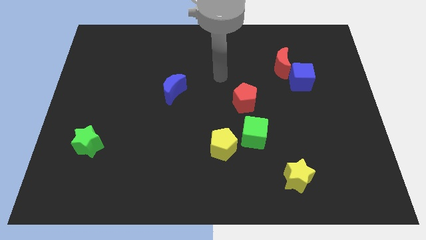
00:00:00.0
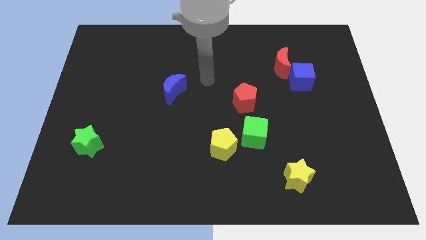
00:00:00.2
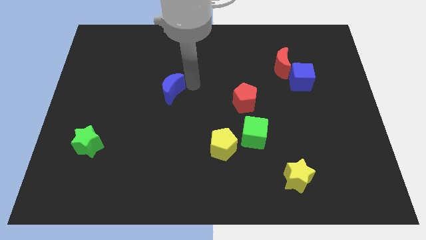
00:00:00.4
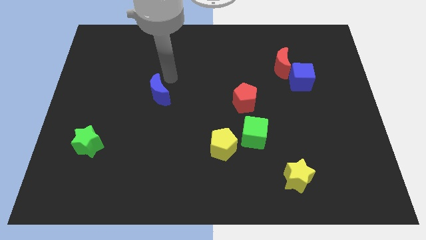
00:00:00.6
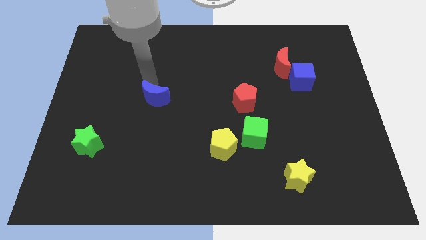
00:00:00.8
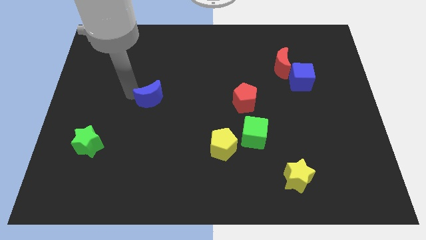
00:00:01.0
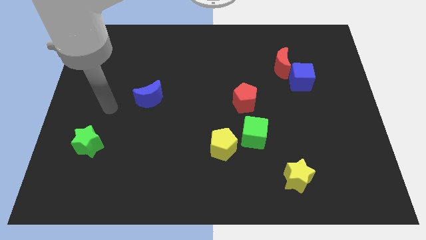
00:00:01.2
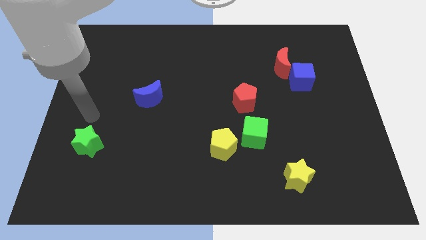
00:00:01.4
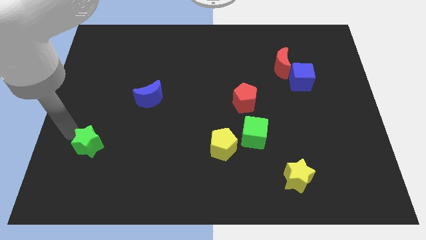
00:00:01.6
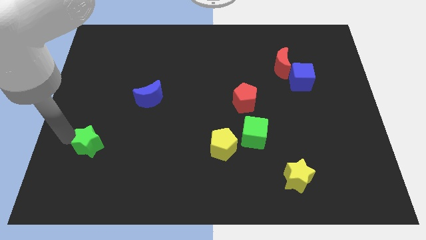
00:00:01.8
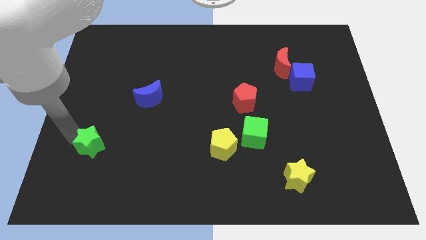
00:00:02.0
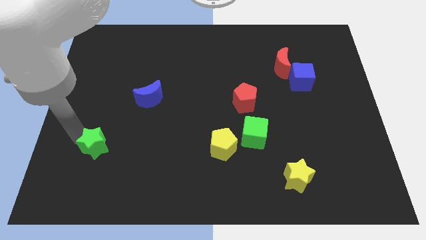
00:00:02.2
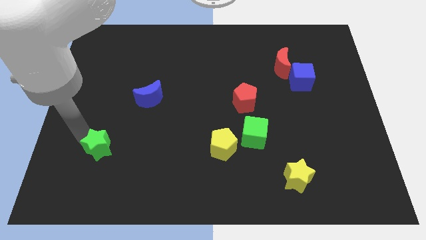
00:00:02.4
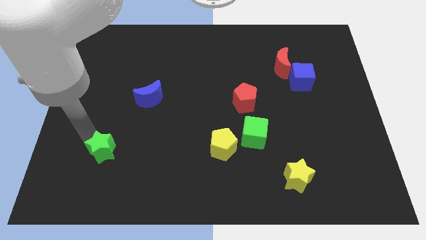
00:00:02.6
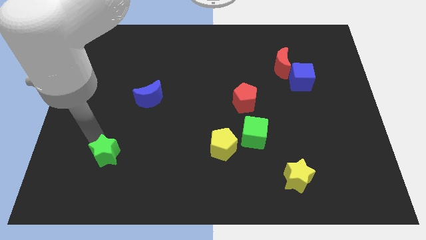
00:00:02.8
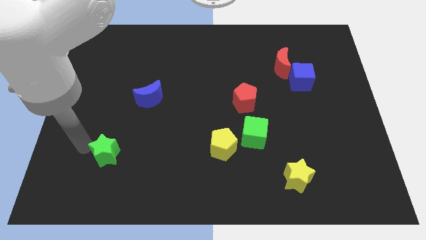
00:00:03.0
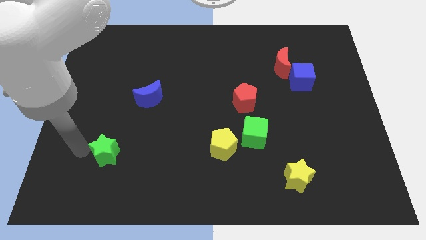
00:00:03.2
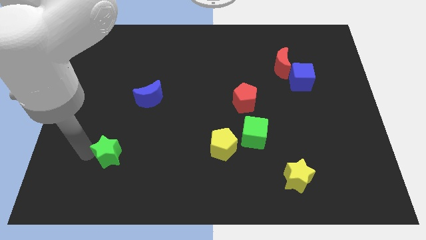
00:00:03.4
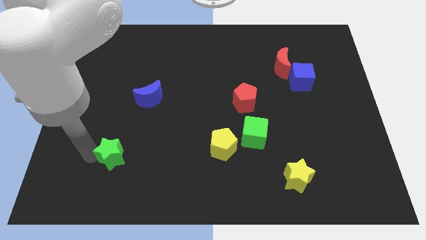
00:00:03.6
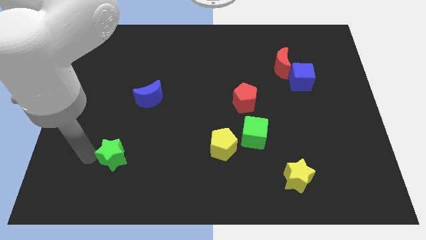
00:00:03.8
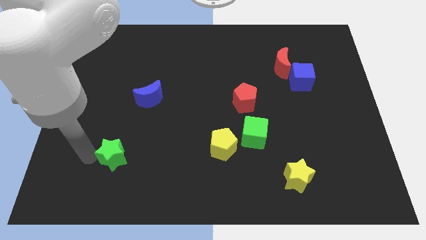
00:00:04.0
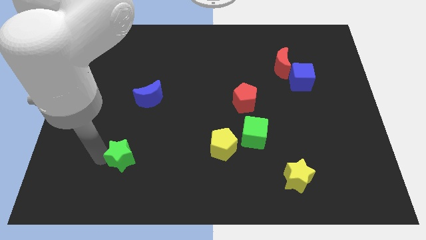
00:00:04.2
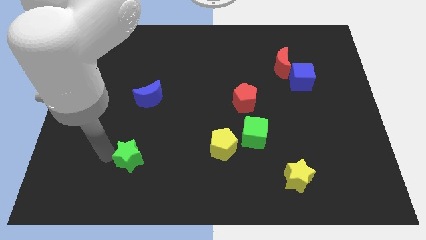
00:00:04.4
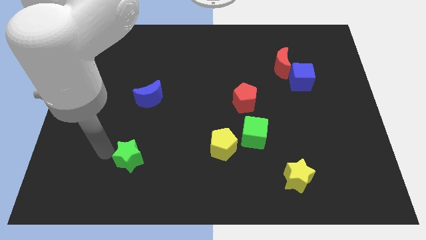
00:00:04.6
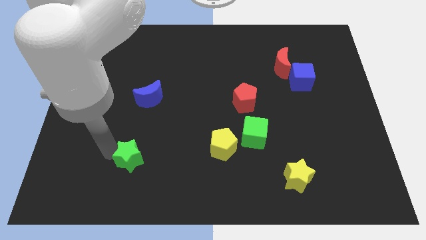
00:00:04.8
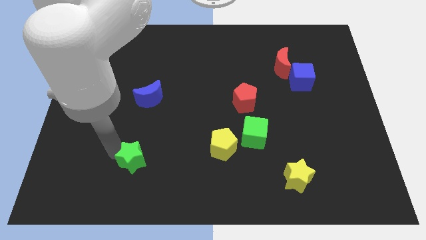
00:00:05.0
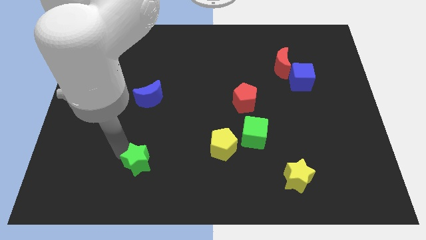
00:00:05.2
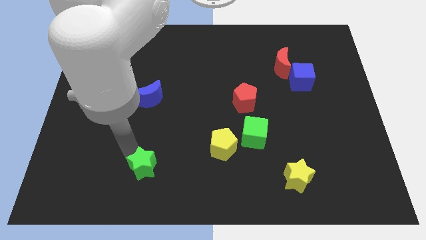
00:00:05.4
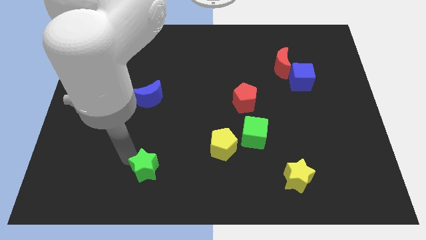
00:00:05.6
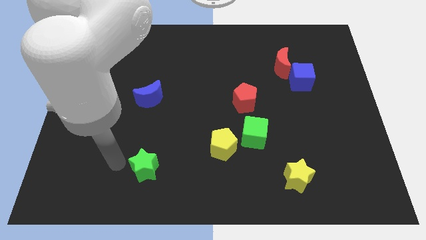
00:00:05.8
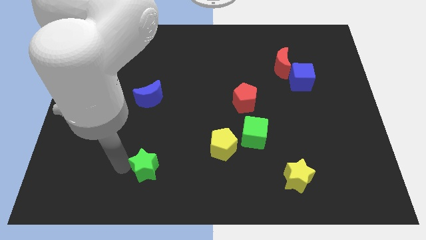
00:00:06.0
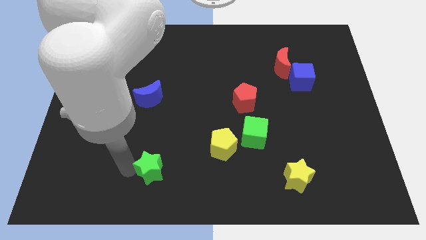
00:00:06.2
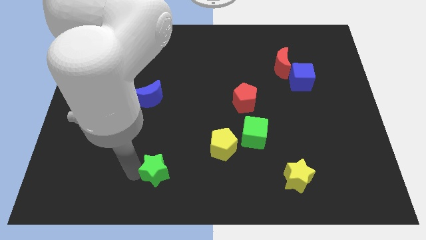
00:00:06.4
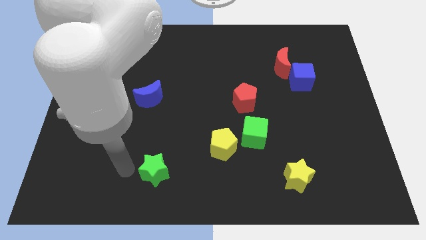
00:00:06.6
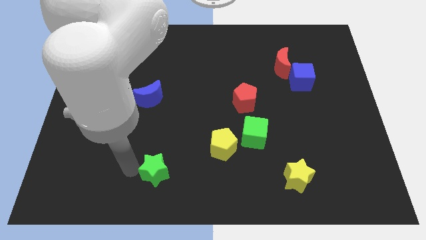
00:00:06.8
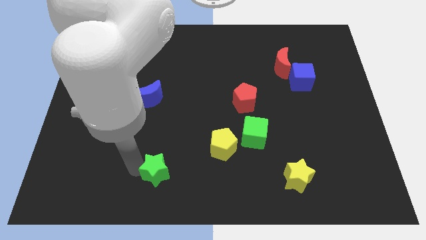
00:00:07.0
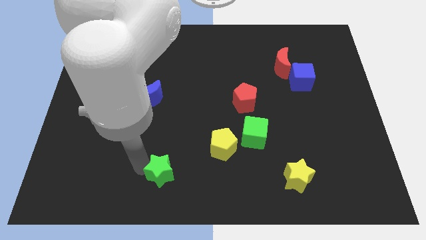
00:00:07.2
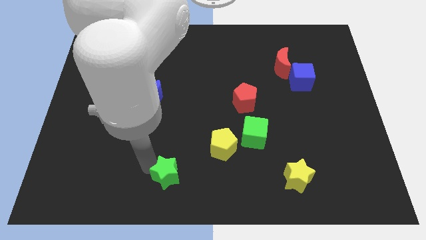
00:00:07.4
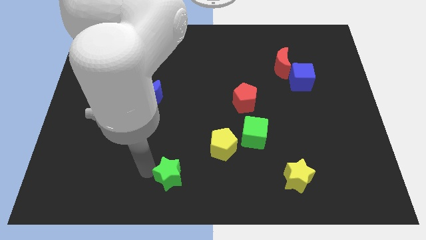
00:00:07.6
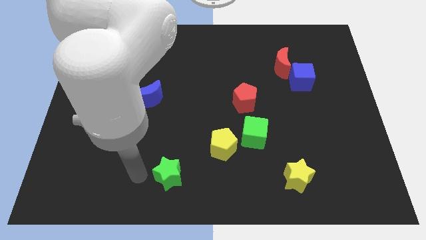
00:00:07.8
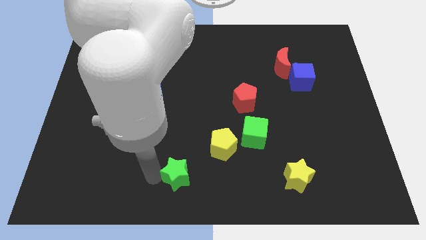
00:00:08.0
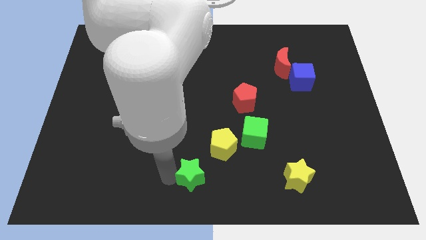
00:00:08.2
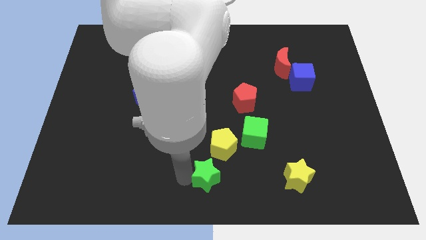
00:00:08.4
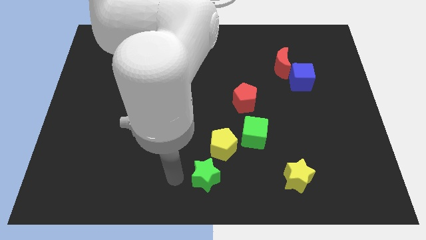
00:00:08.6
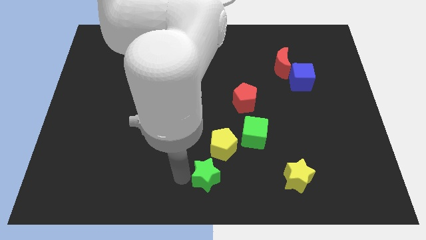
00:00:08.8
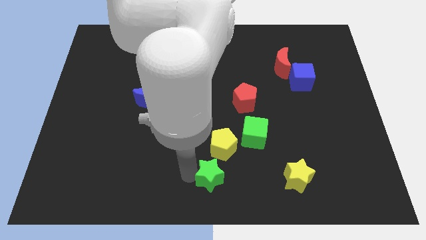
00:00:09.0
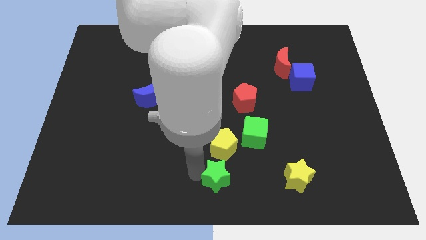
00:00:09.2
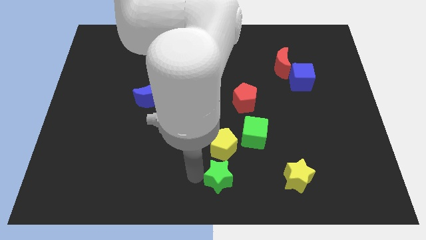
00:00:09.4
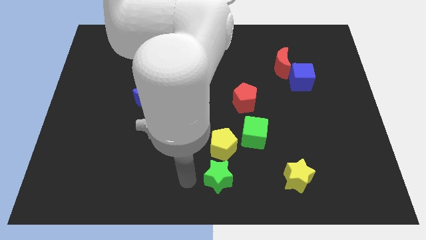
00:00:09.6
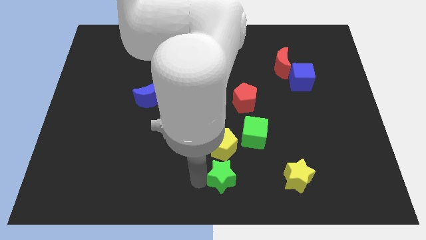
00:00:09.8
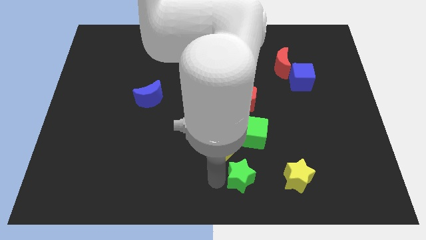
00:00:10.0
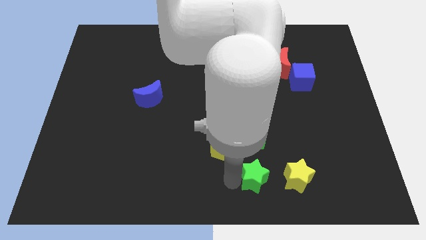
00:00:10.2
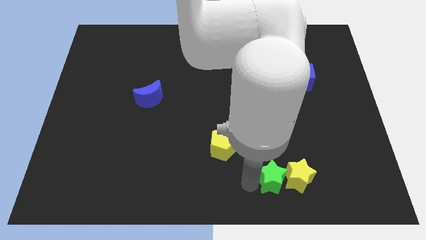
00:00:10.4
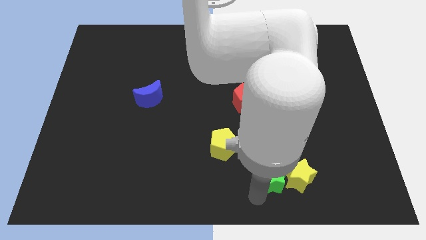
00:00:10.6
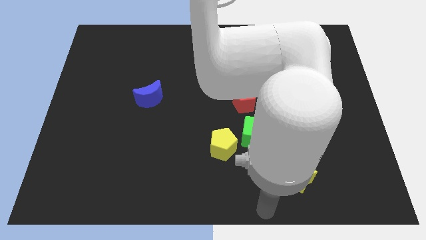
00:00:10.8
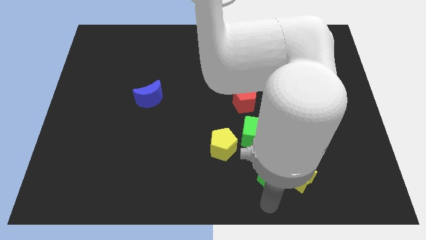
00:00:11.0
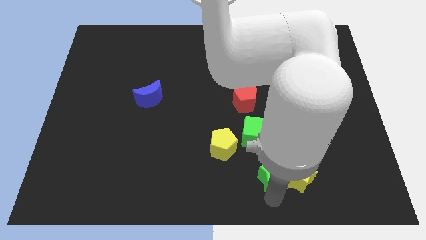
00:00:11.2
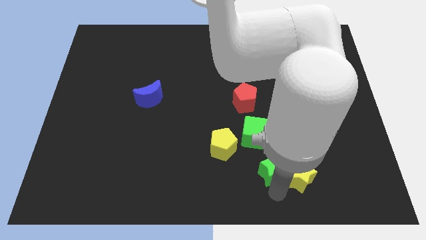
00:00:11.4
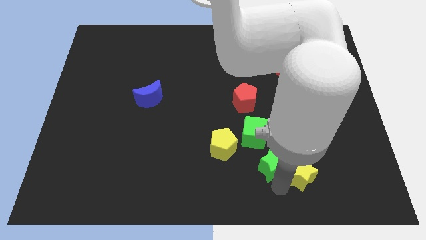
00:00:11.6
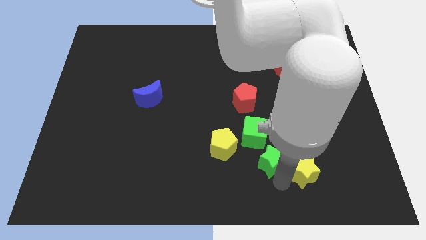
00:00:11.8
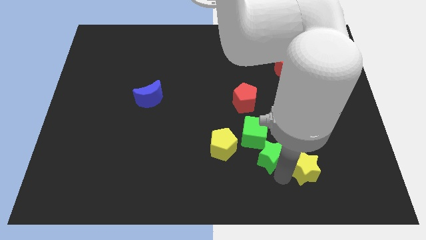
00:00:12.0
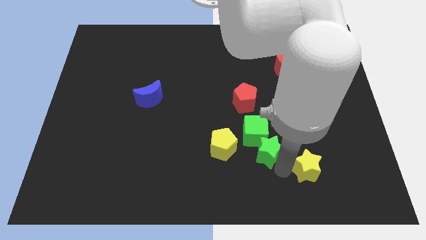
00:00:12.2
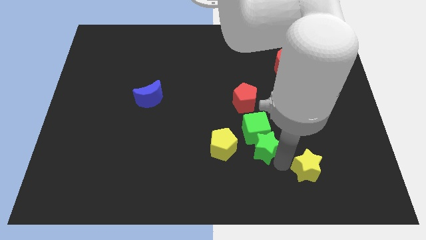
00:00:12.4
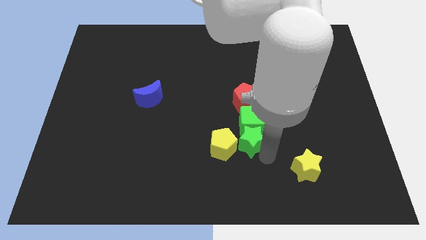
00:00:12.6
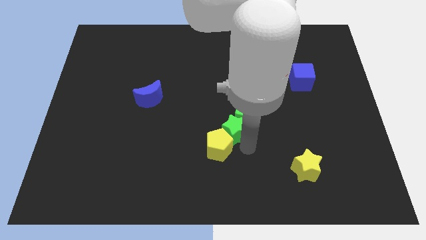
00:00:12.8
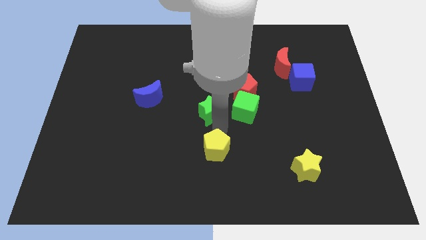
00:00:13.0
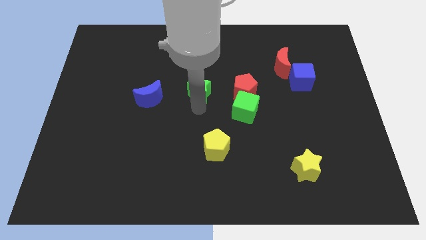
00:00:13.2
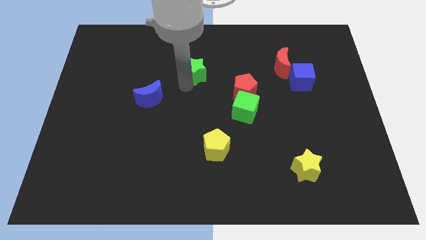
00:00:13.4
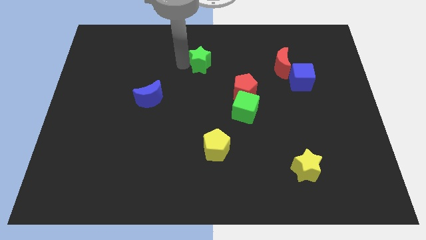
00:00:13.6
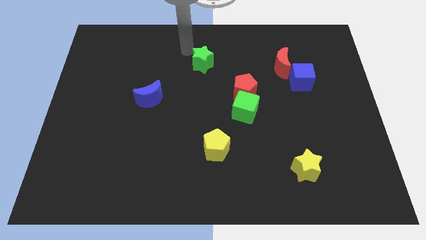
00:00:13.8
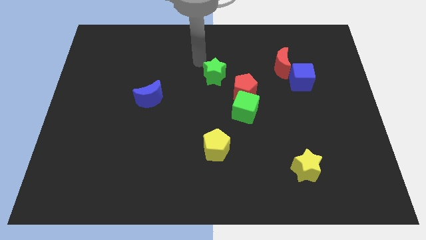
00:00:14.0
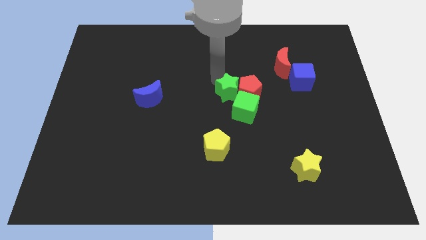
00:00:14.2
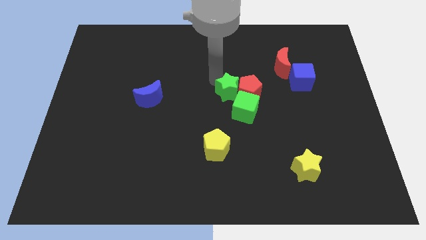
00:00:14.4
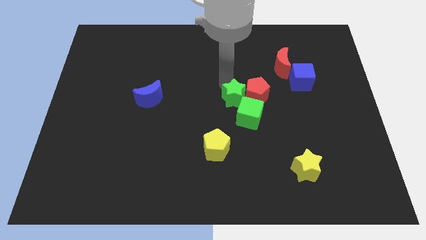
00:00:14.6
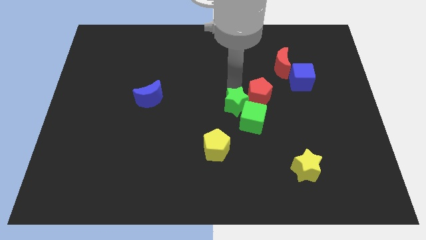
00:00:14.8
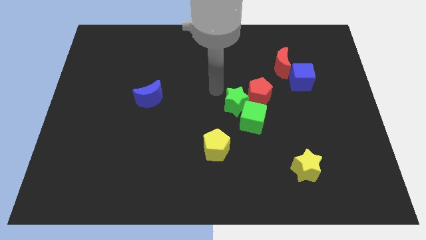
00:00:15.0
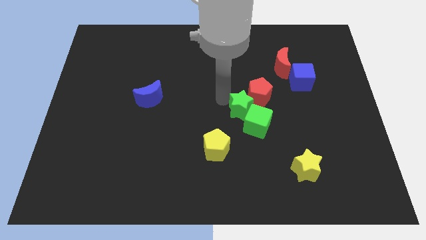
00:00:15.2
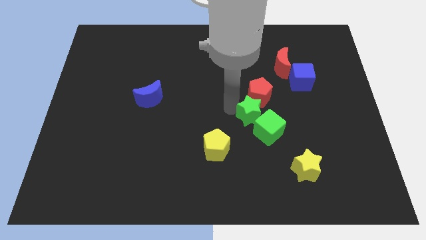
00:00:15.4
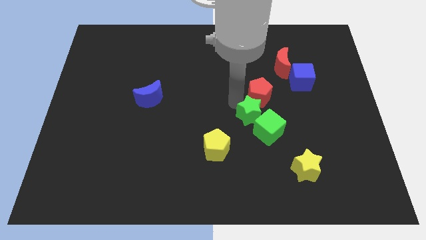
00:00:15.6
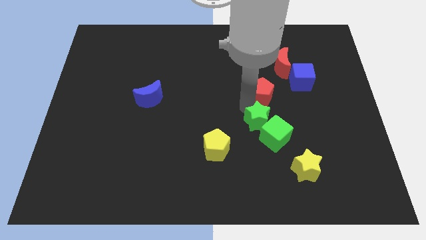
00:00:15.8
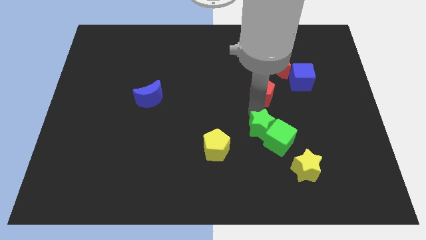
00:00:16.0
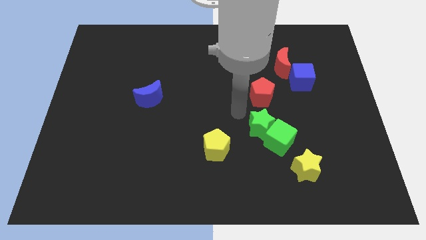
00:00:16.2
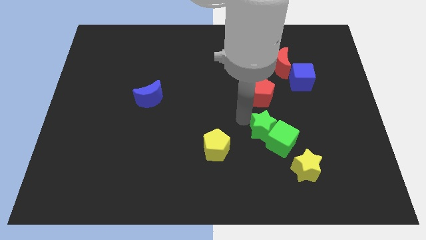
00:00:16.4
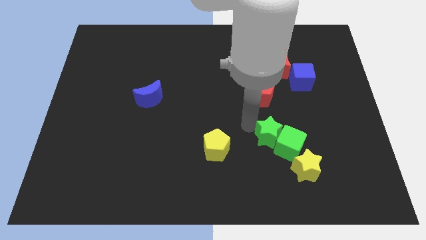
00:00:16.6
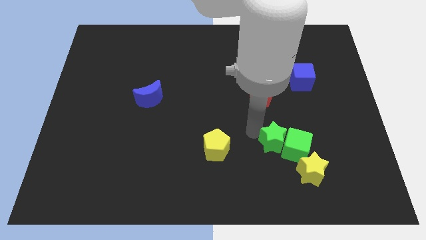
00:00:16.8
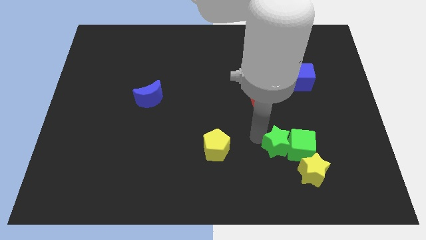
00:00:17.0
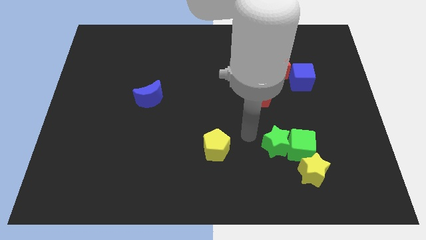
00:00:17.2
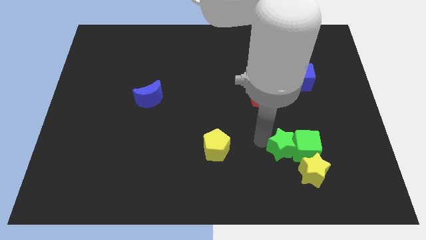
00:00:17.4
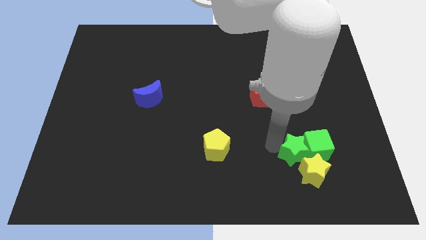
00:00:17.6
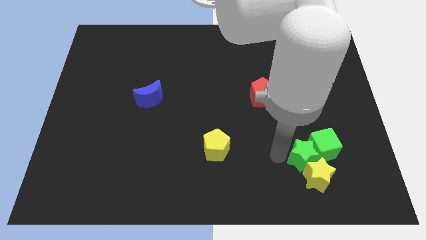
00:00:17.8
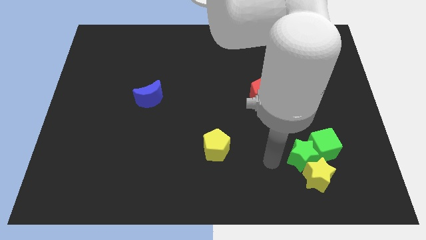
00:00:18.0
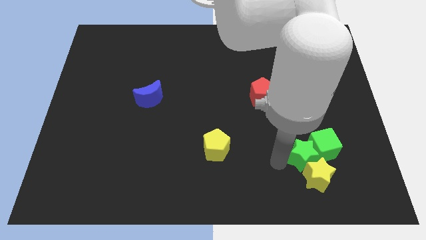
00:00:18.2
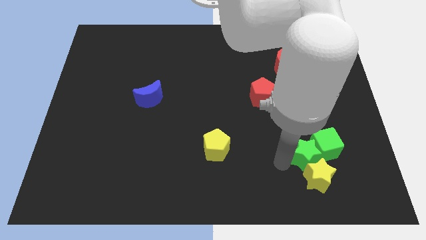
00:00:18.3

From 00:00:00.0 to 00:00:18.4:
slide the green star to the top right side of the yellow star
